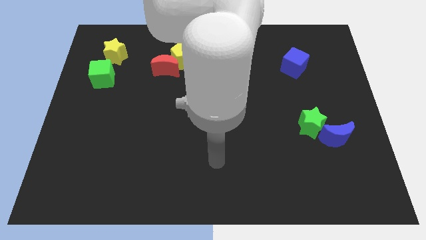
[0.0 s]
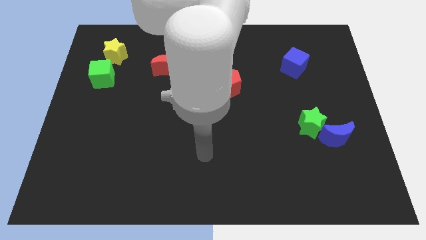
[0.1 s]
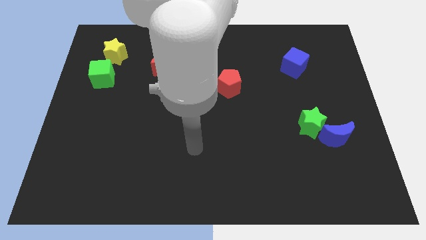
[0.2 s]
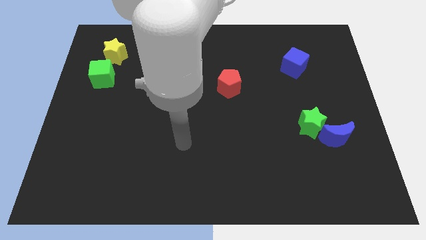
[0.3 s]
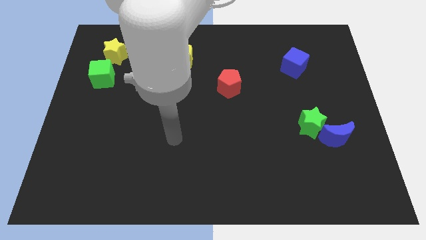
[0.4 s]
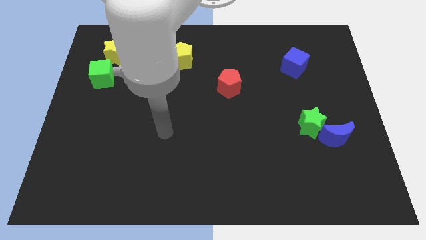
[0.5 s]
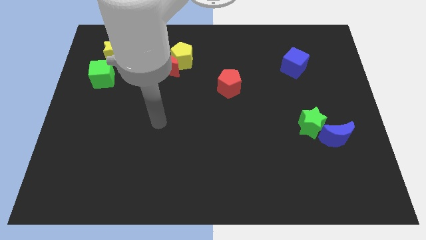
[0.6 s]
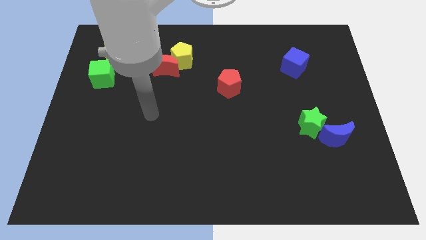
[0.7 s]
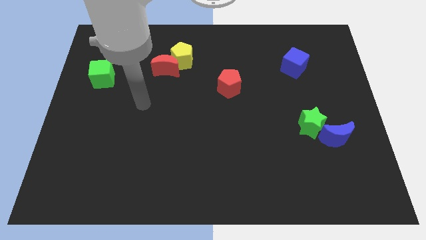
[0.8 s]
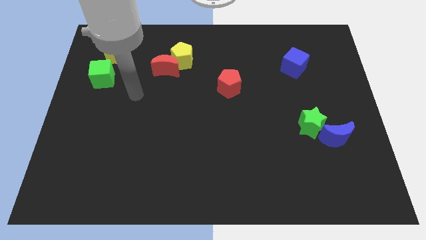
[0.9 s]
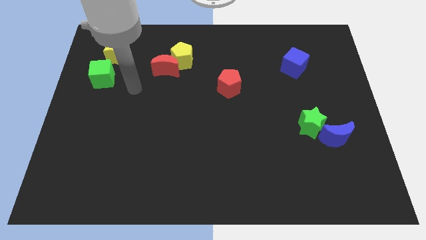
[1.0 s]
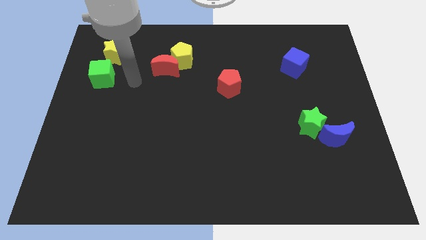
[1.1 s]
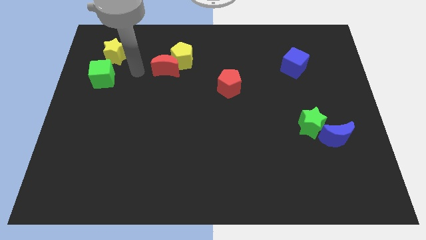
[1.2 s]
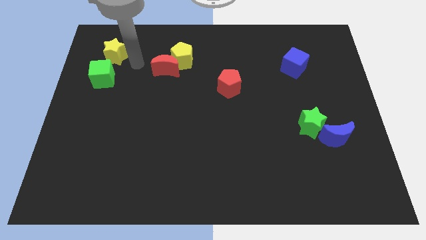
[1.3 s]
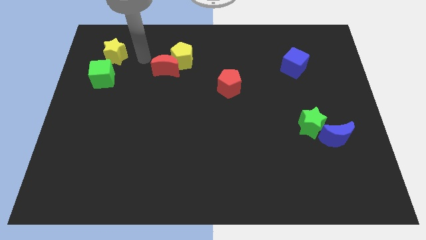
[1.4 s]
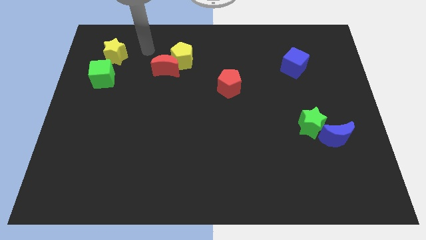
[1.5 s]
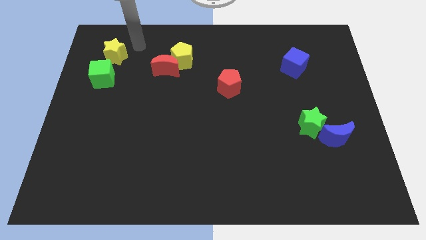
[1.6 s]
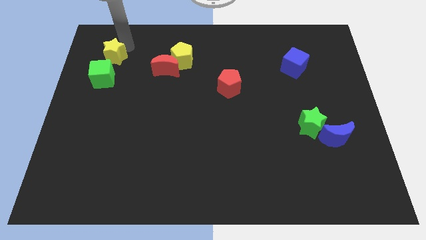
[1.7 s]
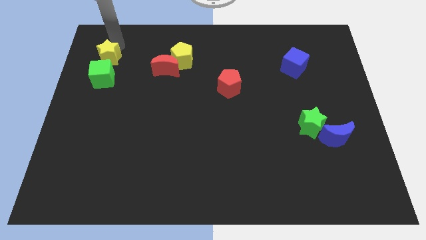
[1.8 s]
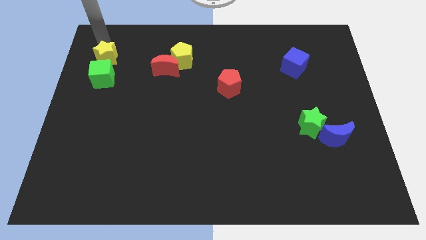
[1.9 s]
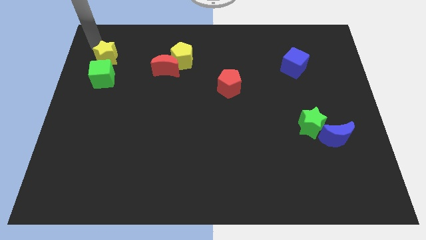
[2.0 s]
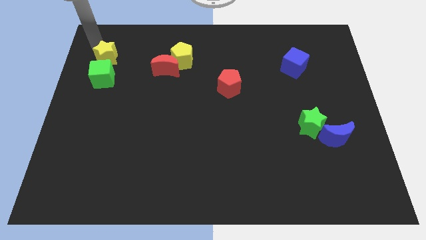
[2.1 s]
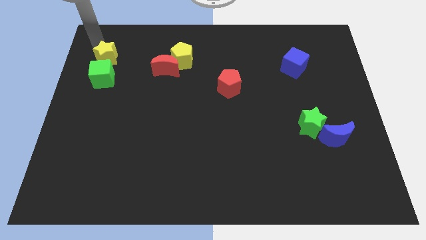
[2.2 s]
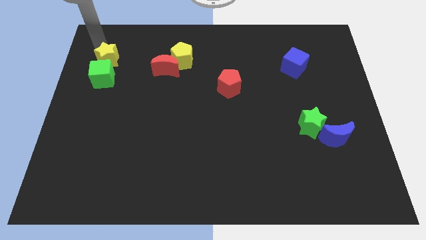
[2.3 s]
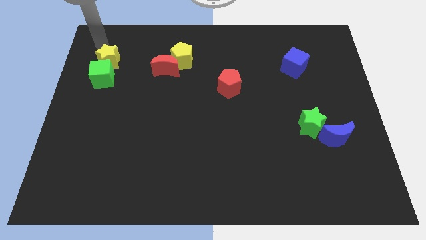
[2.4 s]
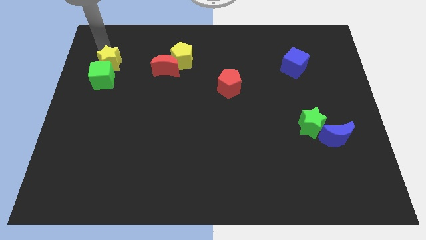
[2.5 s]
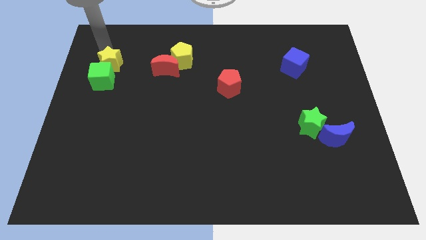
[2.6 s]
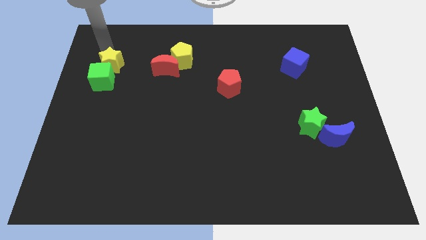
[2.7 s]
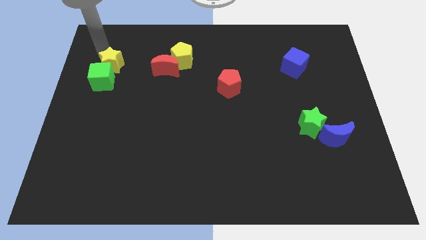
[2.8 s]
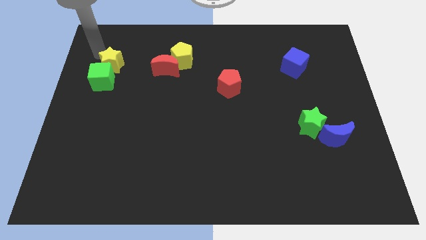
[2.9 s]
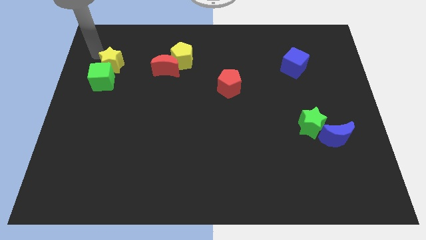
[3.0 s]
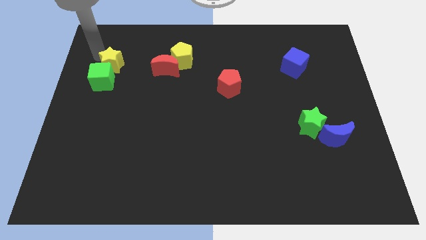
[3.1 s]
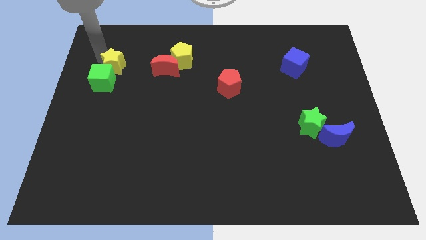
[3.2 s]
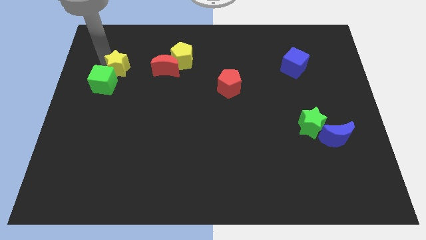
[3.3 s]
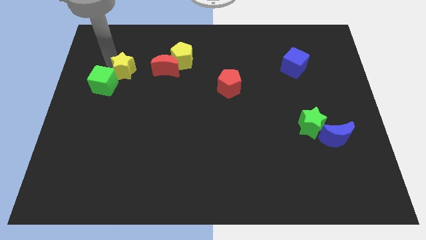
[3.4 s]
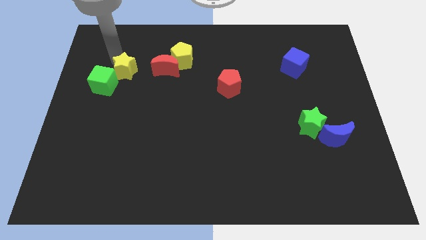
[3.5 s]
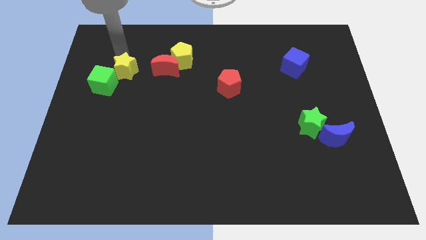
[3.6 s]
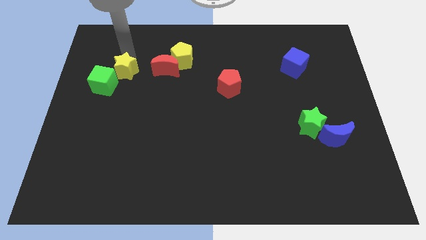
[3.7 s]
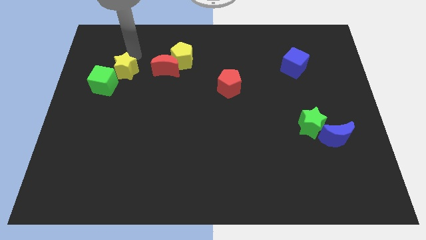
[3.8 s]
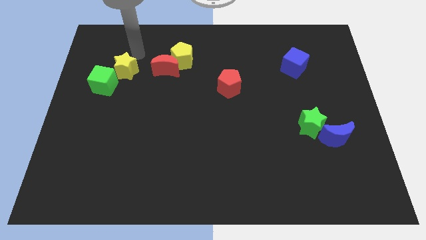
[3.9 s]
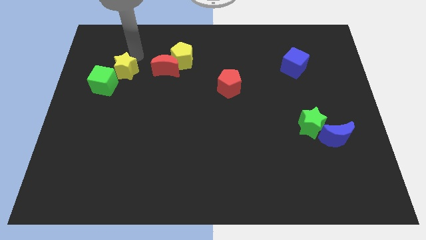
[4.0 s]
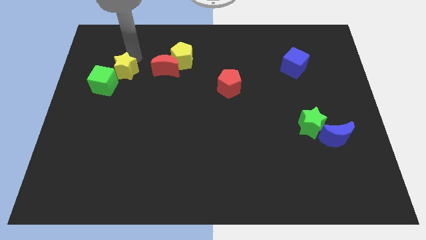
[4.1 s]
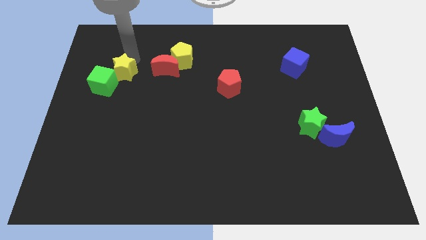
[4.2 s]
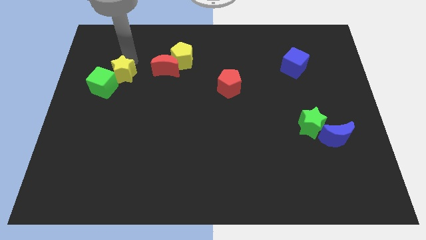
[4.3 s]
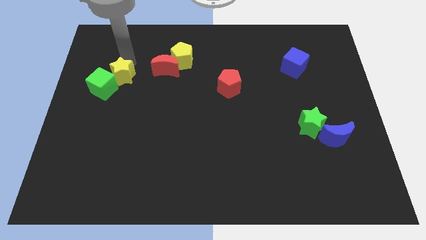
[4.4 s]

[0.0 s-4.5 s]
move the yellow star downwards a little

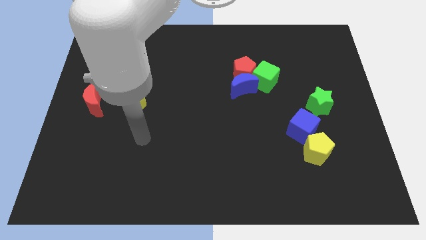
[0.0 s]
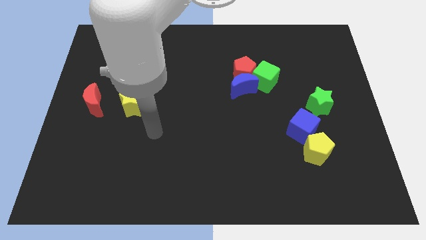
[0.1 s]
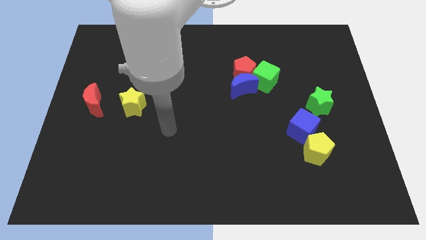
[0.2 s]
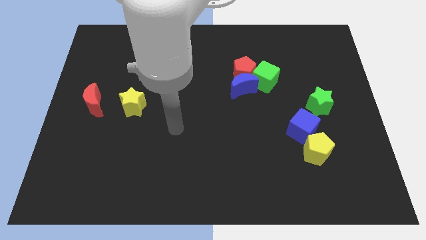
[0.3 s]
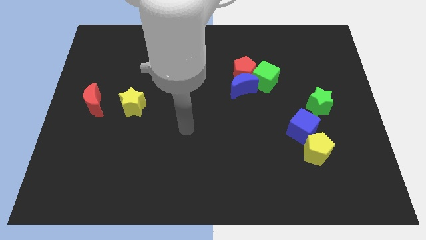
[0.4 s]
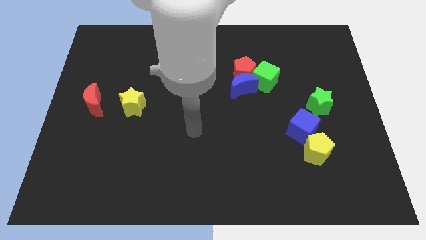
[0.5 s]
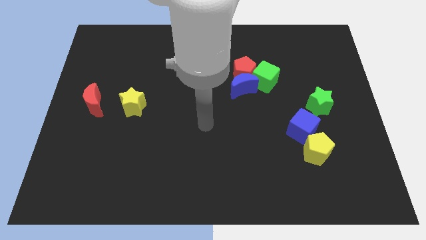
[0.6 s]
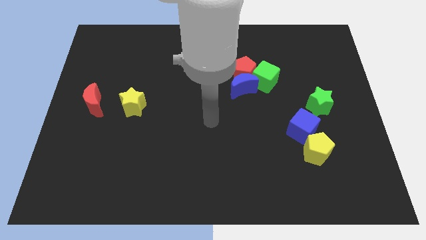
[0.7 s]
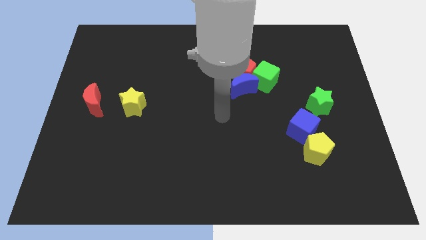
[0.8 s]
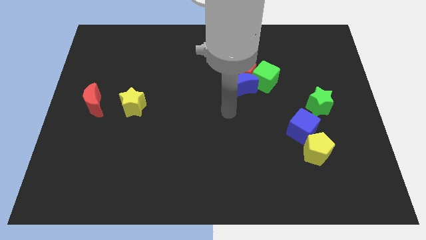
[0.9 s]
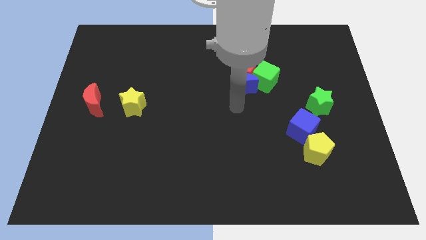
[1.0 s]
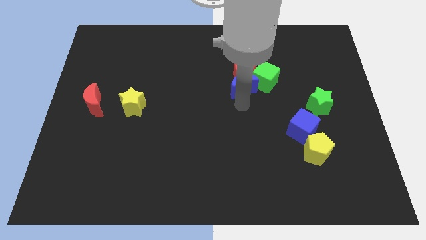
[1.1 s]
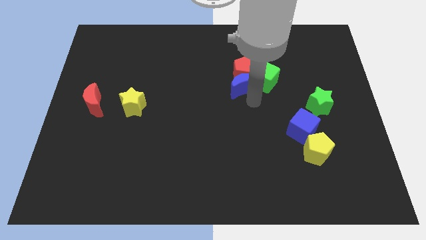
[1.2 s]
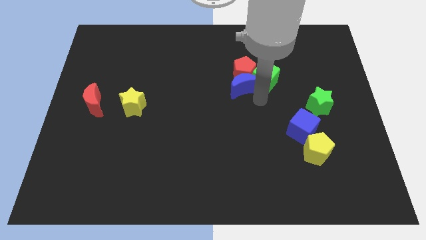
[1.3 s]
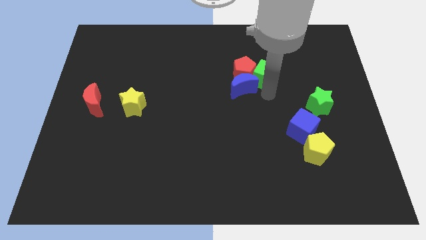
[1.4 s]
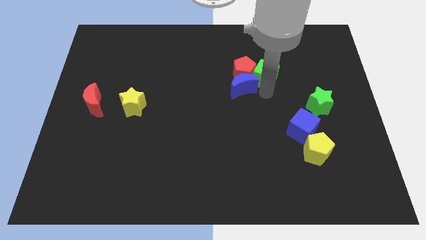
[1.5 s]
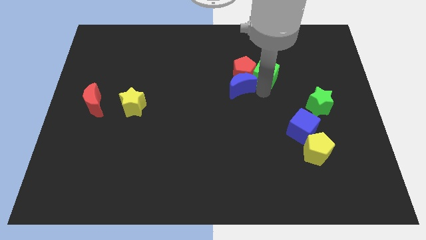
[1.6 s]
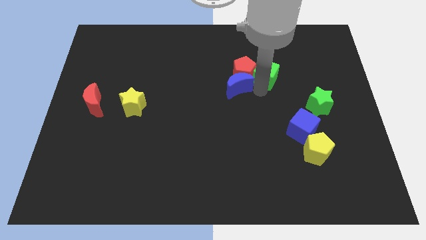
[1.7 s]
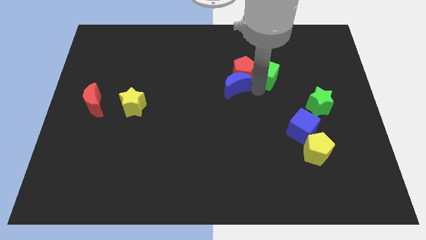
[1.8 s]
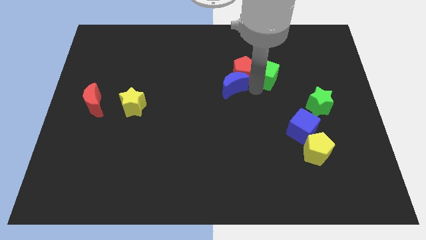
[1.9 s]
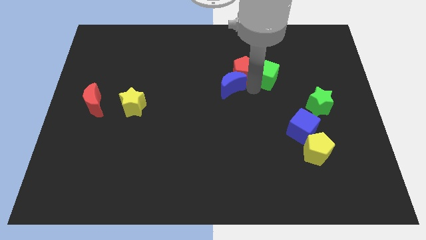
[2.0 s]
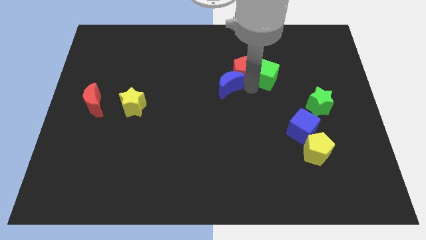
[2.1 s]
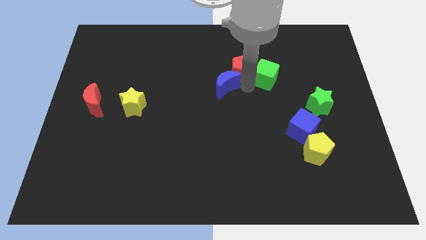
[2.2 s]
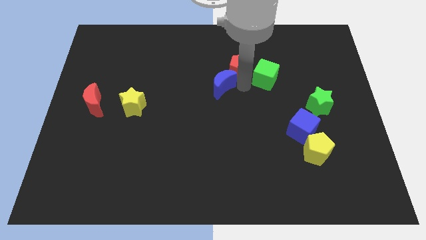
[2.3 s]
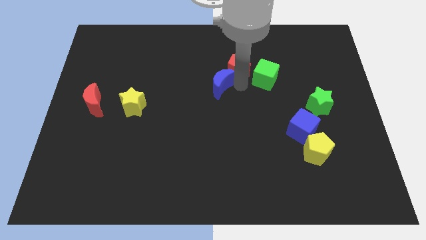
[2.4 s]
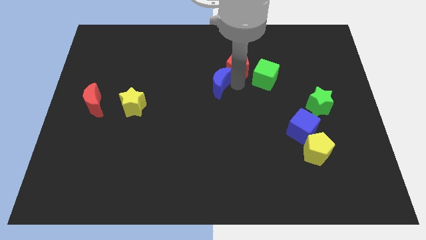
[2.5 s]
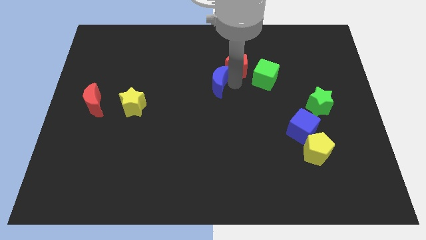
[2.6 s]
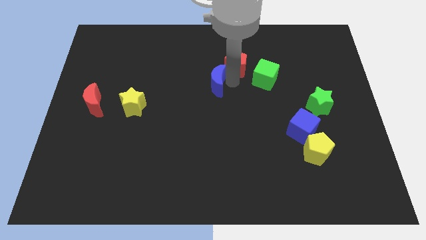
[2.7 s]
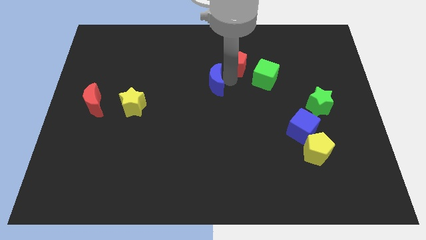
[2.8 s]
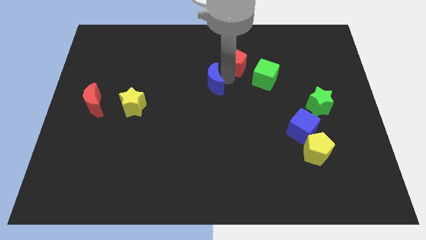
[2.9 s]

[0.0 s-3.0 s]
slightly push the blue moon left

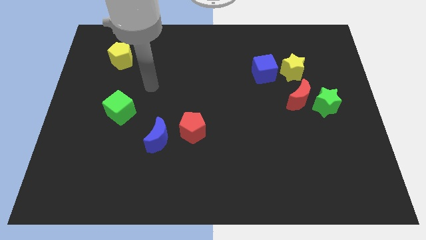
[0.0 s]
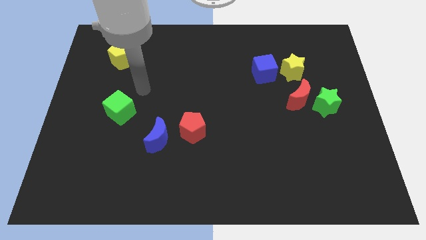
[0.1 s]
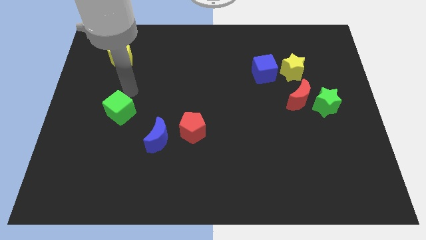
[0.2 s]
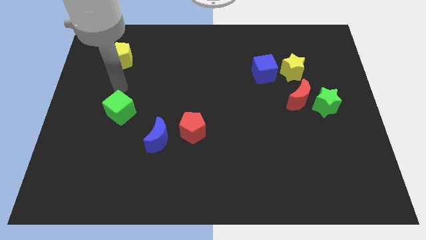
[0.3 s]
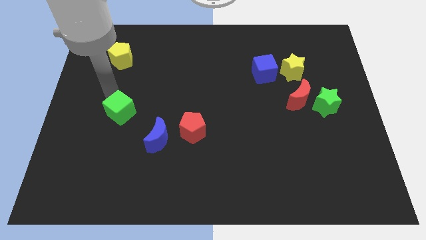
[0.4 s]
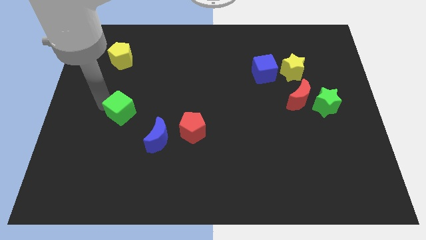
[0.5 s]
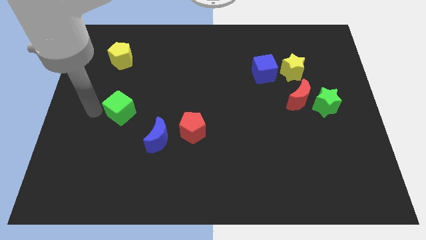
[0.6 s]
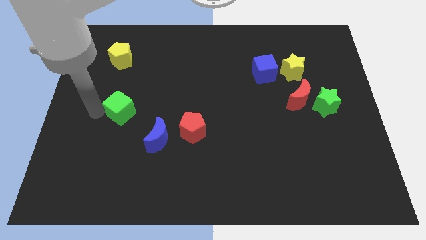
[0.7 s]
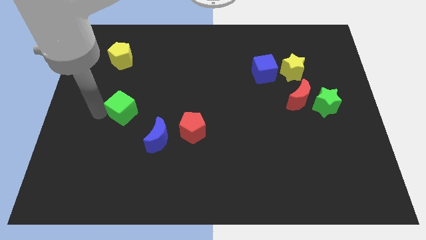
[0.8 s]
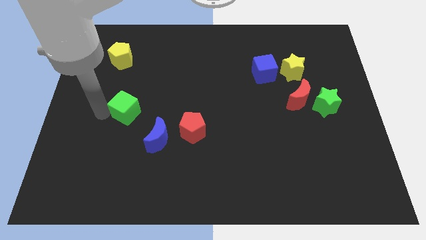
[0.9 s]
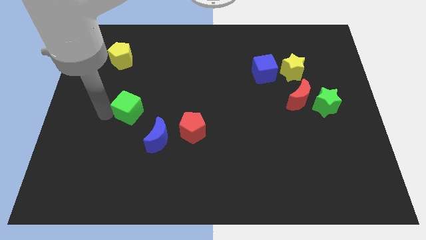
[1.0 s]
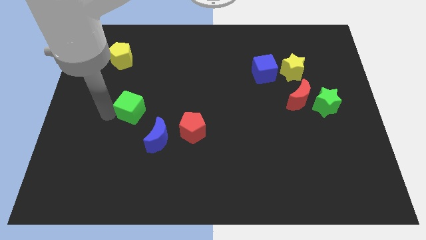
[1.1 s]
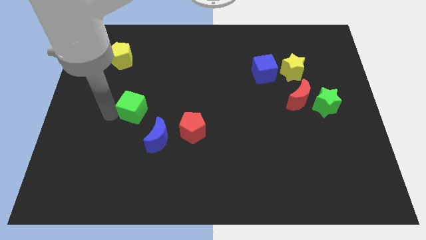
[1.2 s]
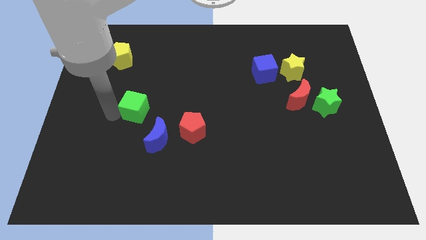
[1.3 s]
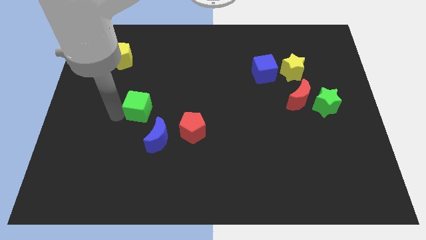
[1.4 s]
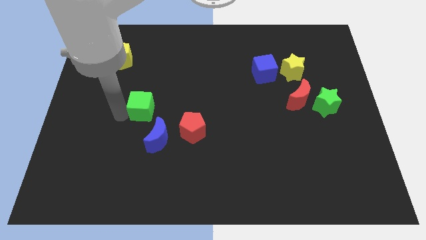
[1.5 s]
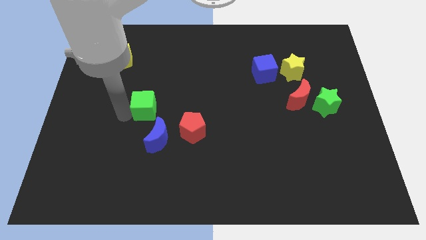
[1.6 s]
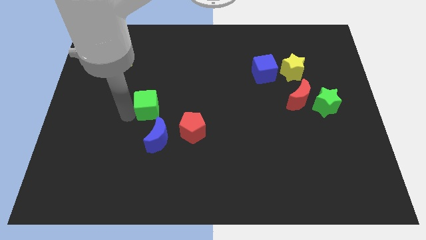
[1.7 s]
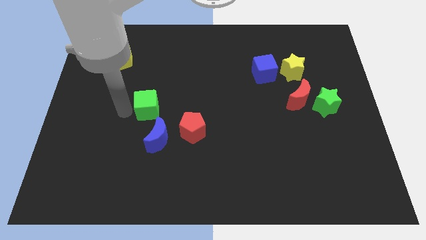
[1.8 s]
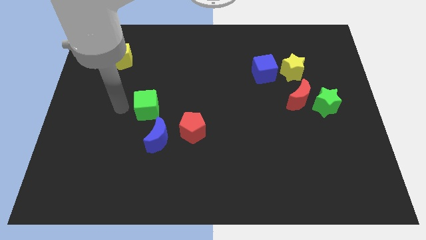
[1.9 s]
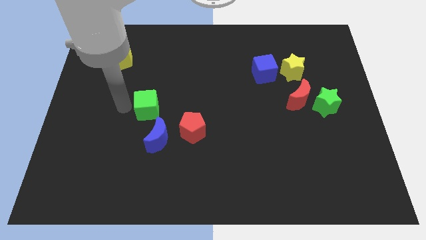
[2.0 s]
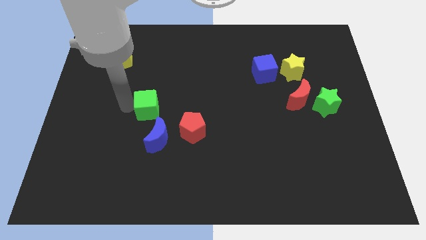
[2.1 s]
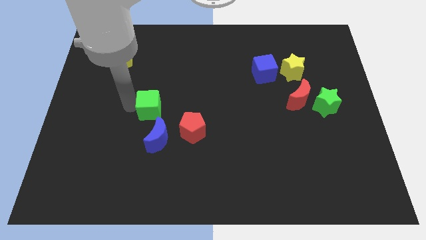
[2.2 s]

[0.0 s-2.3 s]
slightly move the green cube right
